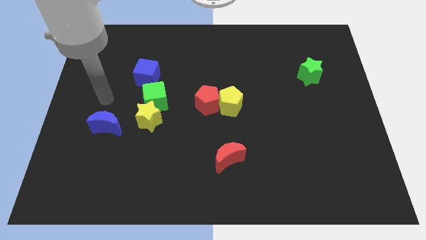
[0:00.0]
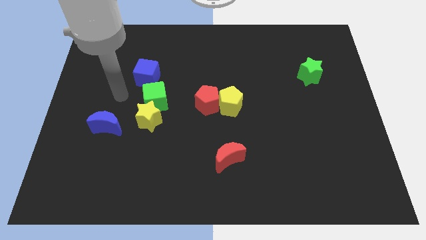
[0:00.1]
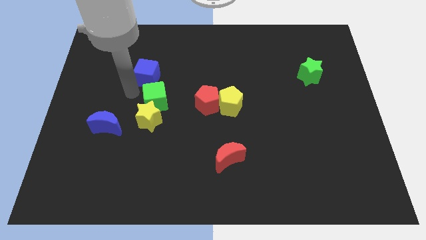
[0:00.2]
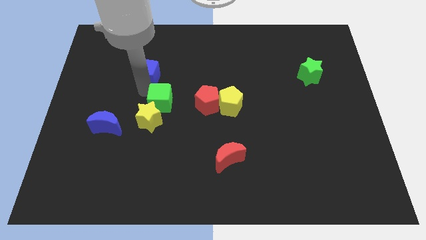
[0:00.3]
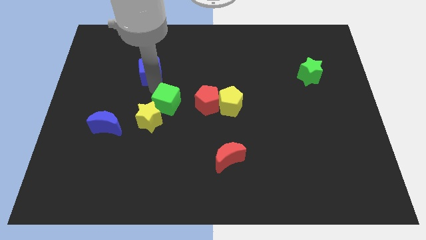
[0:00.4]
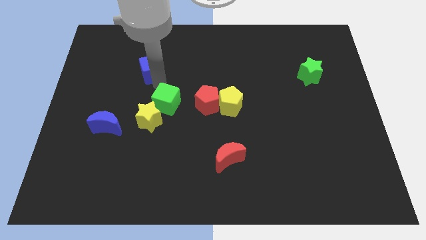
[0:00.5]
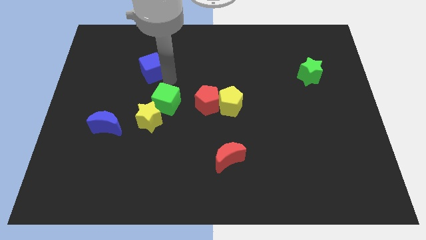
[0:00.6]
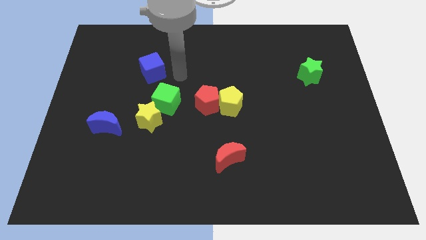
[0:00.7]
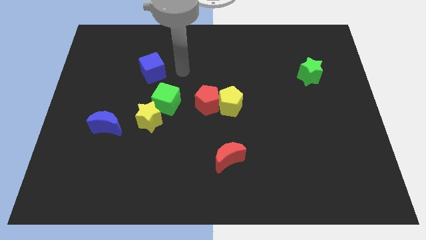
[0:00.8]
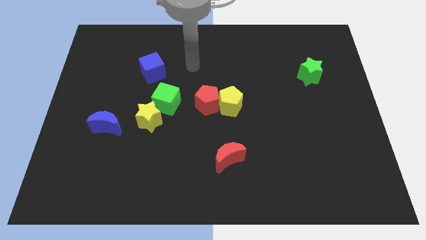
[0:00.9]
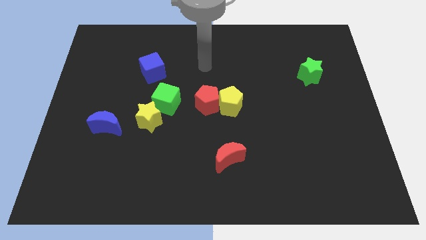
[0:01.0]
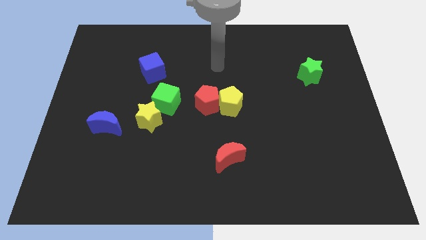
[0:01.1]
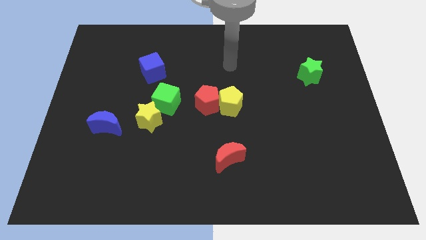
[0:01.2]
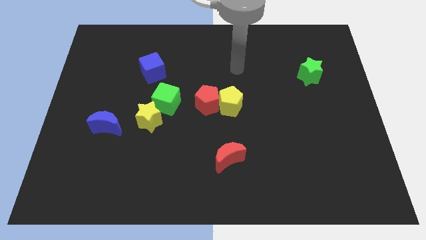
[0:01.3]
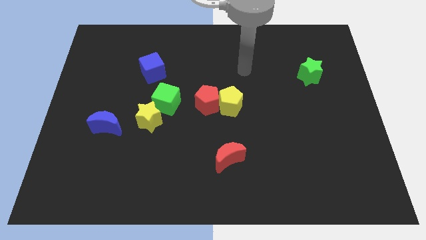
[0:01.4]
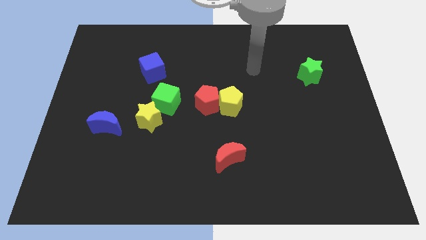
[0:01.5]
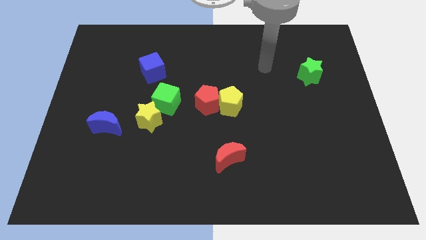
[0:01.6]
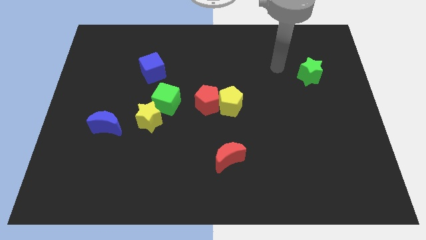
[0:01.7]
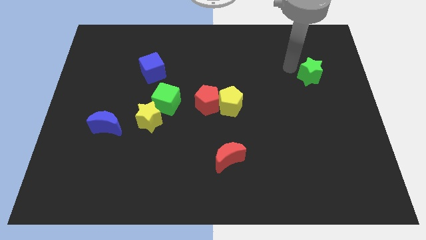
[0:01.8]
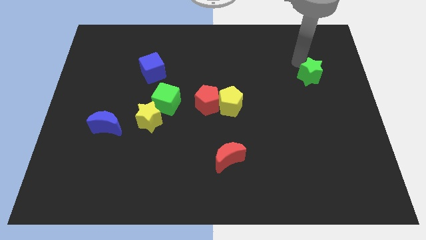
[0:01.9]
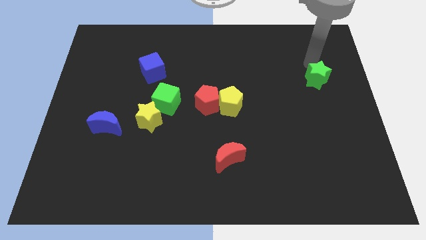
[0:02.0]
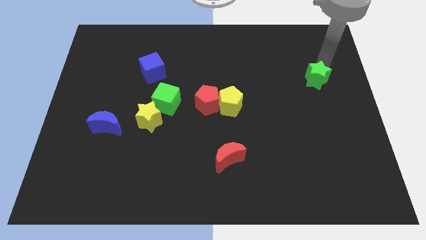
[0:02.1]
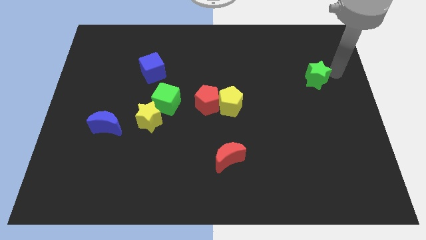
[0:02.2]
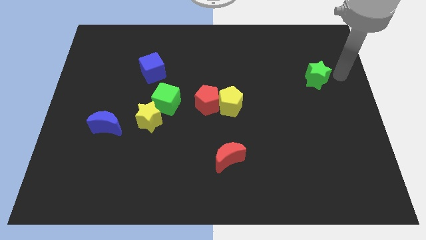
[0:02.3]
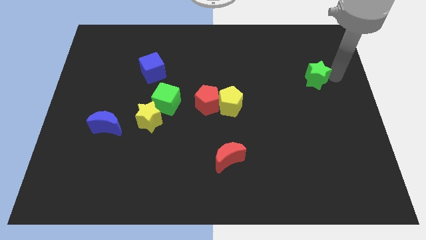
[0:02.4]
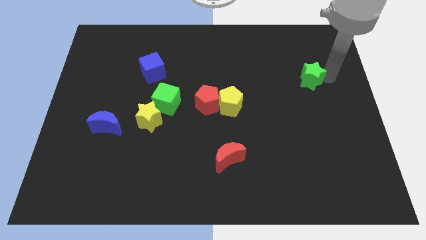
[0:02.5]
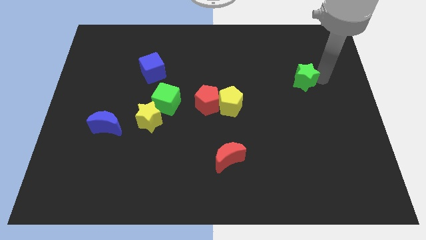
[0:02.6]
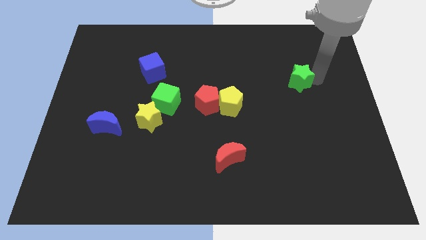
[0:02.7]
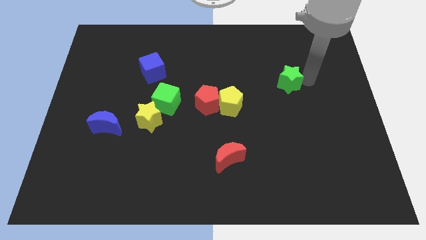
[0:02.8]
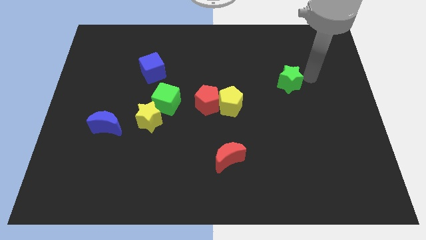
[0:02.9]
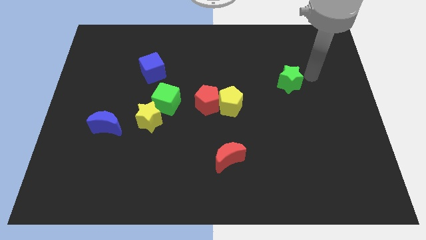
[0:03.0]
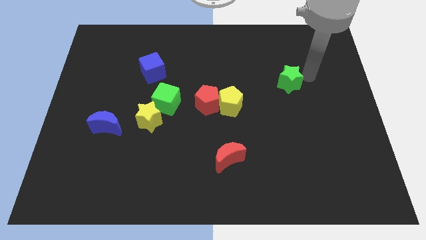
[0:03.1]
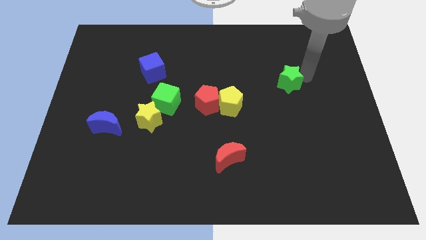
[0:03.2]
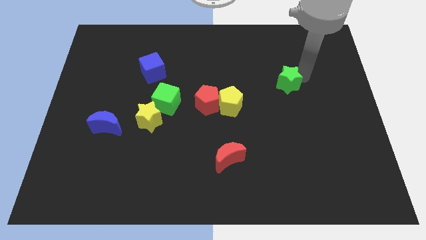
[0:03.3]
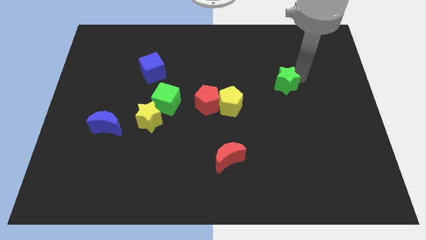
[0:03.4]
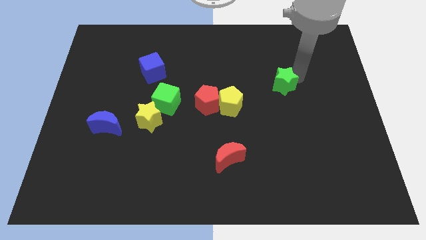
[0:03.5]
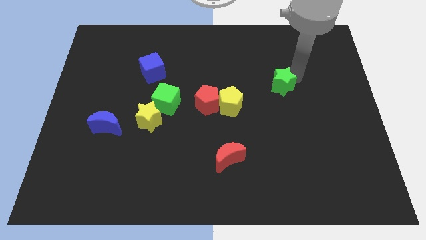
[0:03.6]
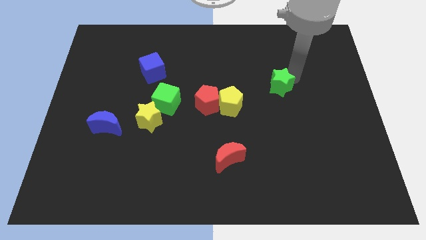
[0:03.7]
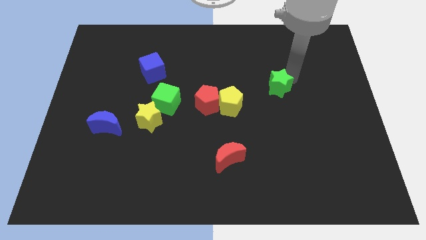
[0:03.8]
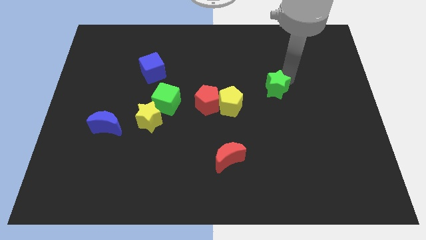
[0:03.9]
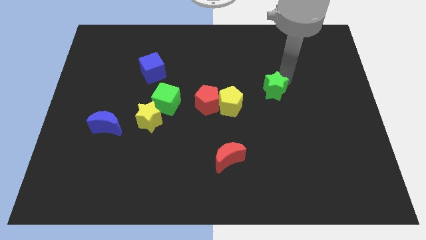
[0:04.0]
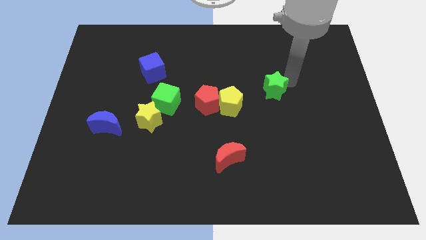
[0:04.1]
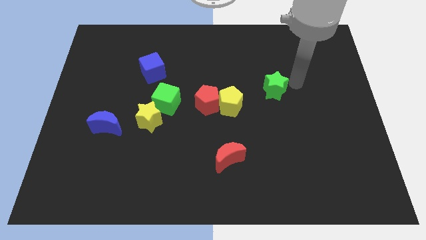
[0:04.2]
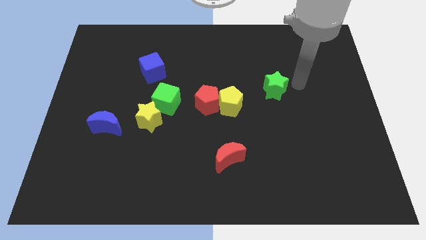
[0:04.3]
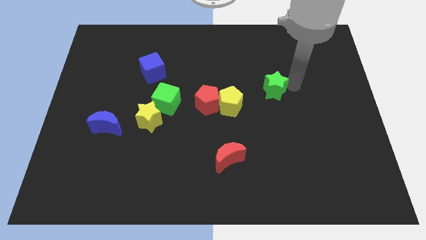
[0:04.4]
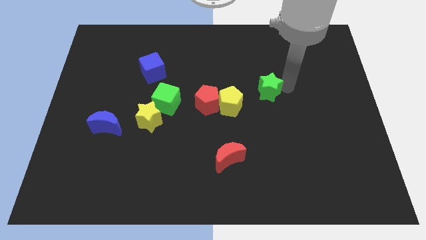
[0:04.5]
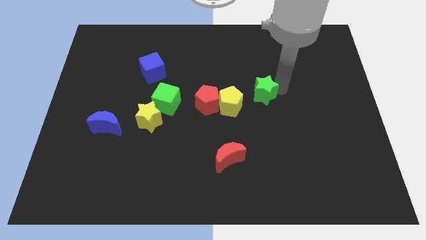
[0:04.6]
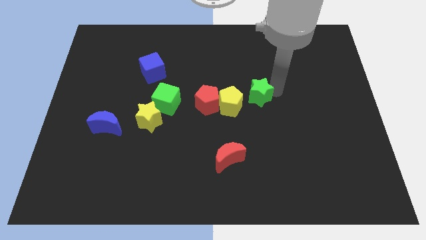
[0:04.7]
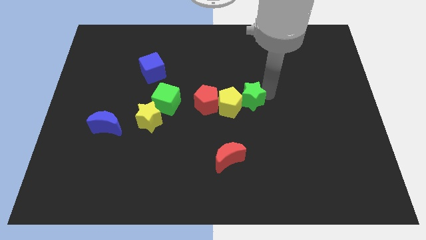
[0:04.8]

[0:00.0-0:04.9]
push the green star to the yellow pentagon

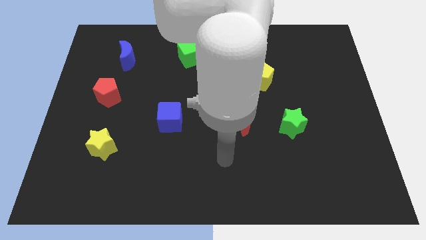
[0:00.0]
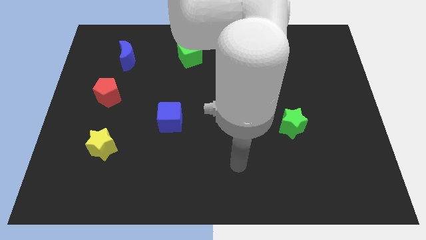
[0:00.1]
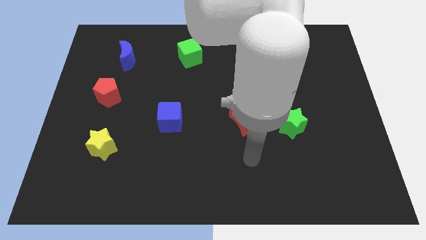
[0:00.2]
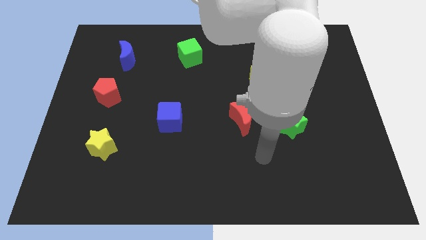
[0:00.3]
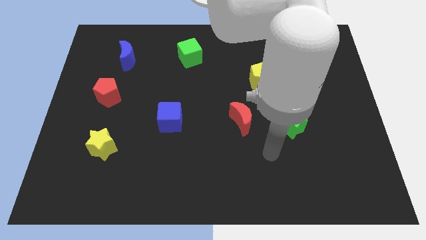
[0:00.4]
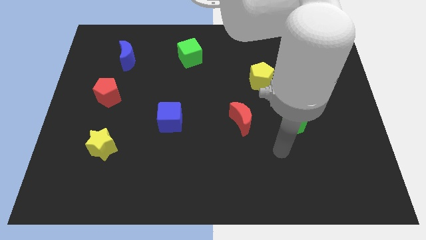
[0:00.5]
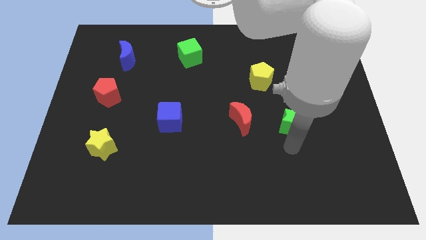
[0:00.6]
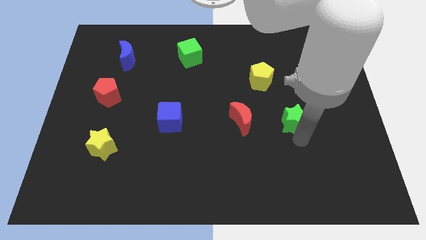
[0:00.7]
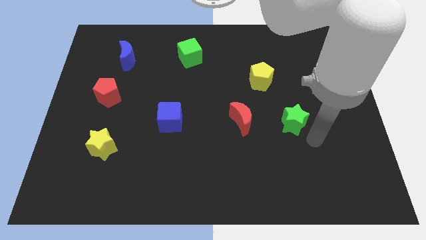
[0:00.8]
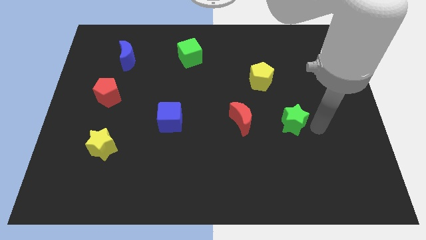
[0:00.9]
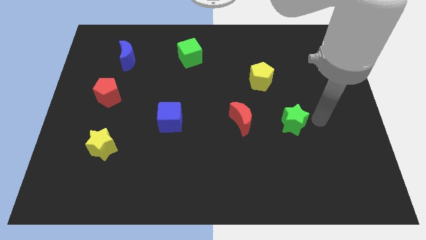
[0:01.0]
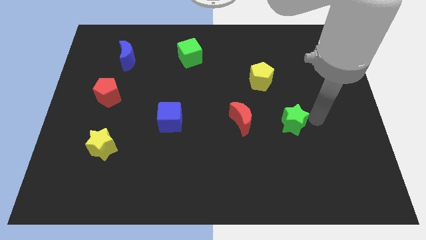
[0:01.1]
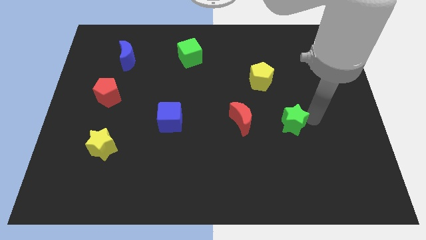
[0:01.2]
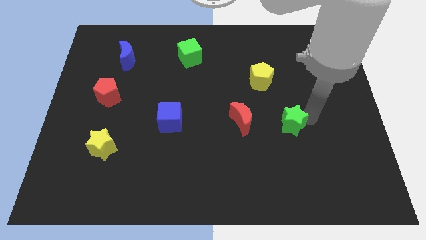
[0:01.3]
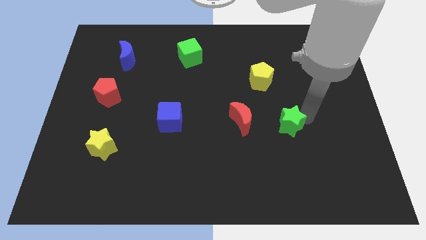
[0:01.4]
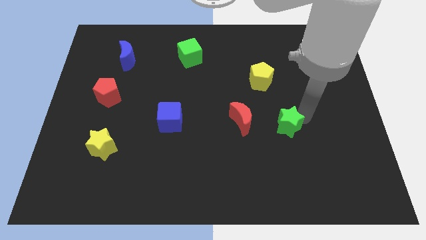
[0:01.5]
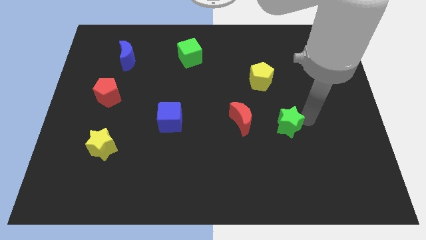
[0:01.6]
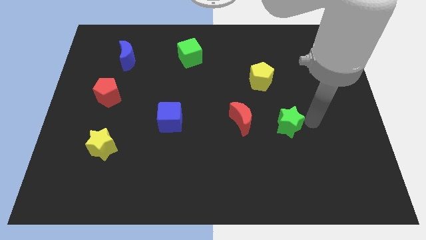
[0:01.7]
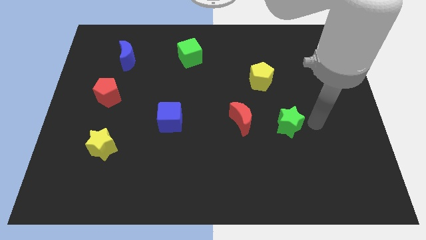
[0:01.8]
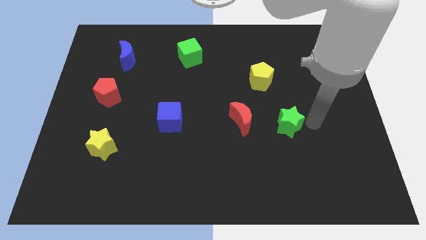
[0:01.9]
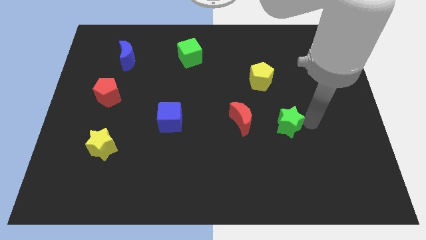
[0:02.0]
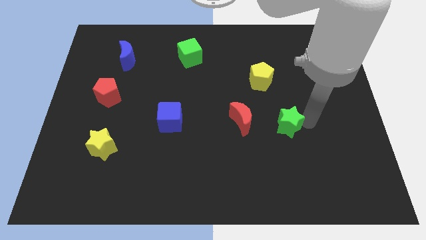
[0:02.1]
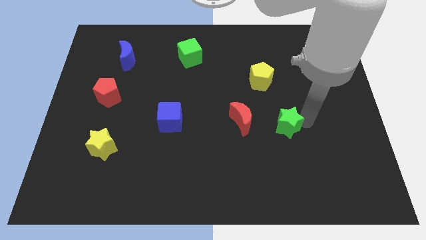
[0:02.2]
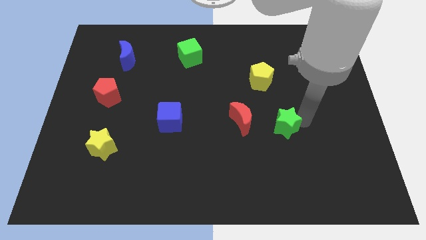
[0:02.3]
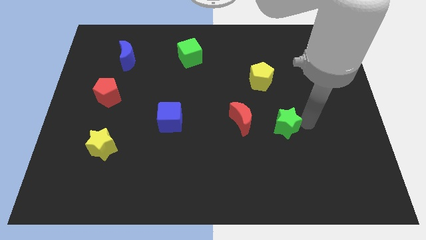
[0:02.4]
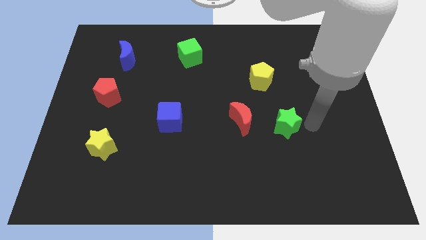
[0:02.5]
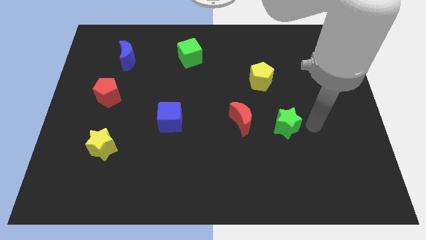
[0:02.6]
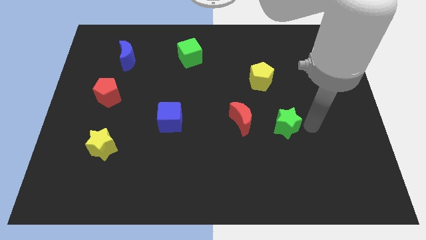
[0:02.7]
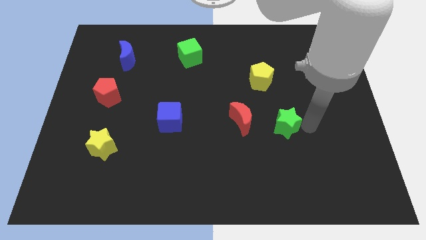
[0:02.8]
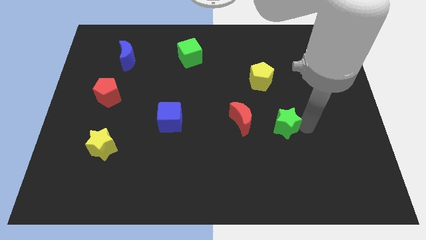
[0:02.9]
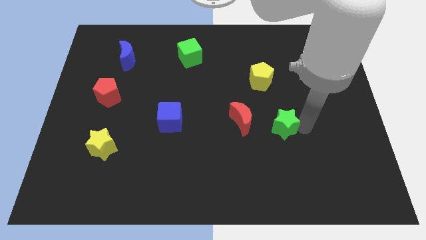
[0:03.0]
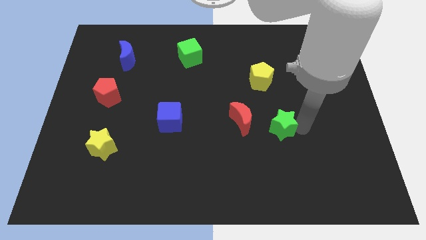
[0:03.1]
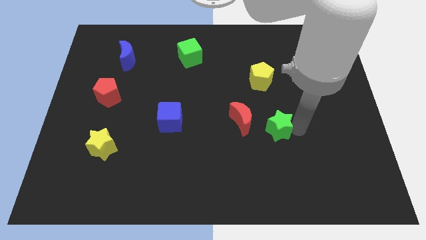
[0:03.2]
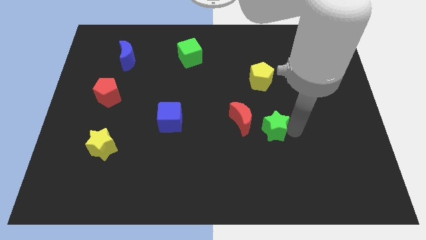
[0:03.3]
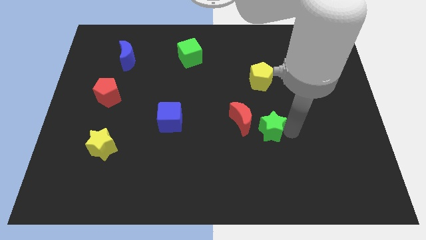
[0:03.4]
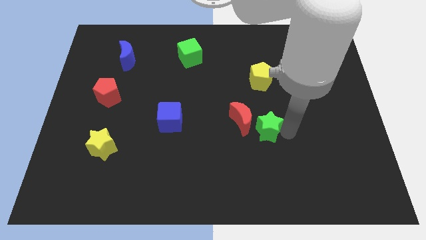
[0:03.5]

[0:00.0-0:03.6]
slide the green star to the red moon
